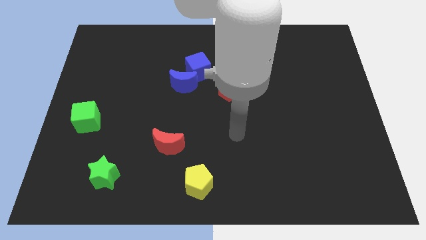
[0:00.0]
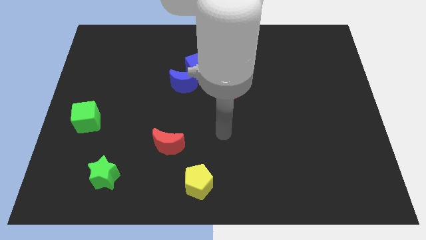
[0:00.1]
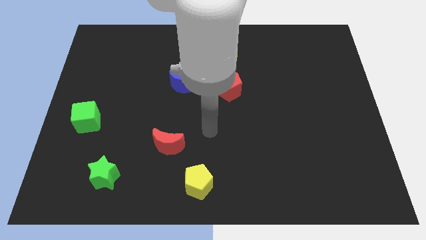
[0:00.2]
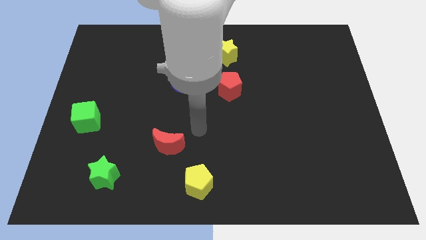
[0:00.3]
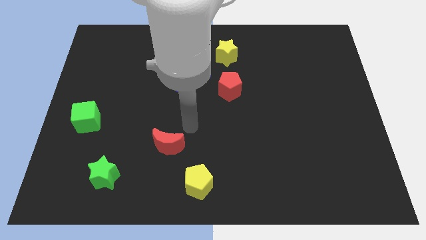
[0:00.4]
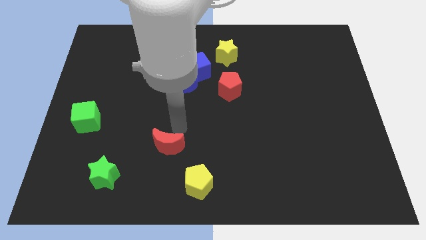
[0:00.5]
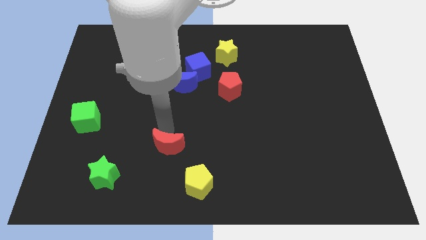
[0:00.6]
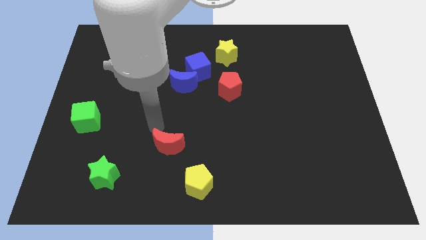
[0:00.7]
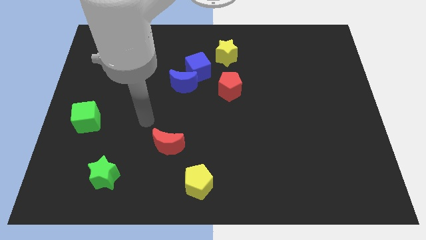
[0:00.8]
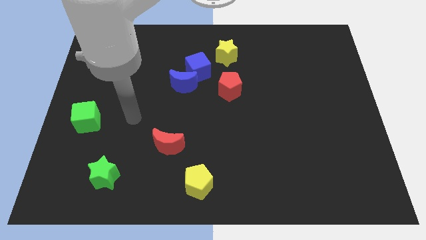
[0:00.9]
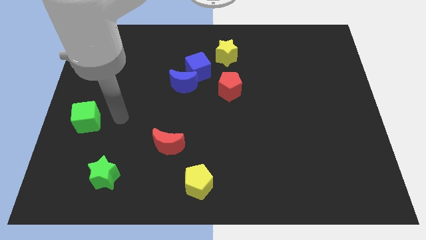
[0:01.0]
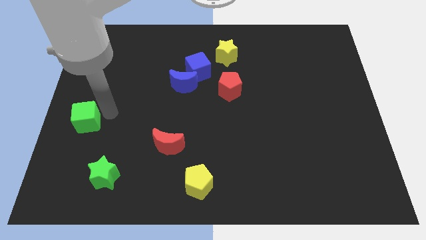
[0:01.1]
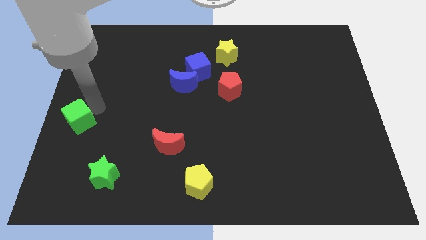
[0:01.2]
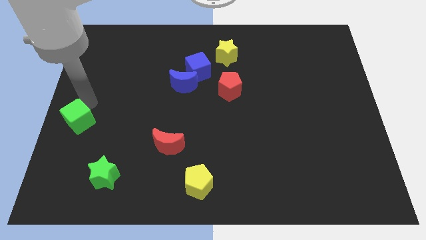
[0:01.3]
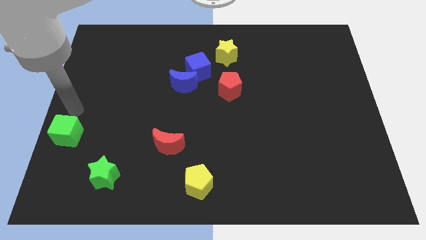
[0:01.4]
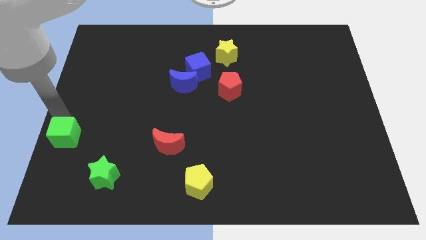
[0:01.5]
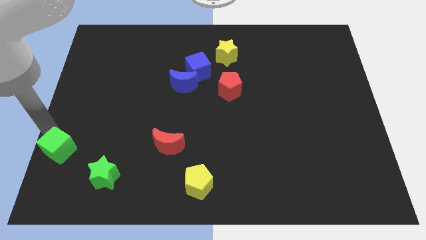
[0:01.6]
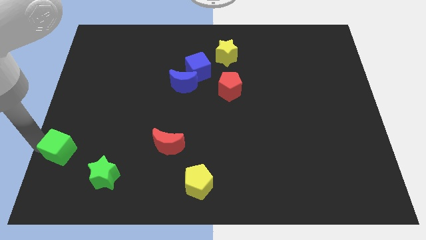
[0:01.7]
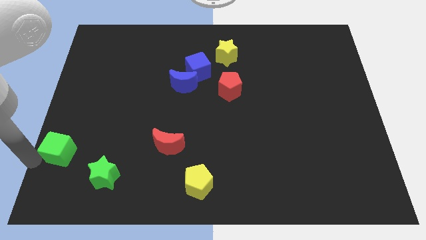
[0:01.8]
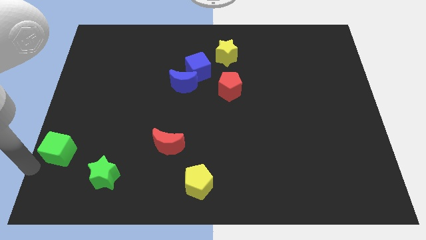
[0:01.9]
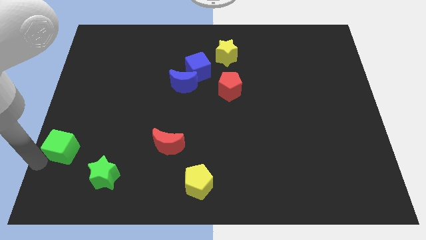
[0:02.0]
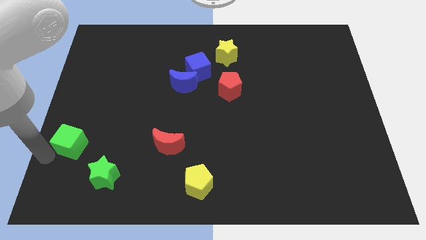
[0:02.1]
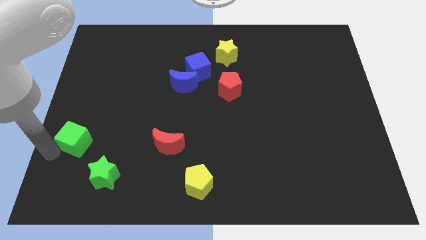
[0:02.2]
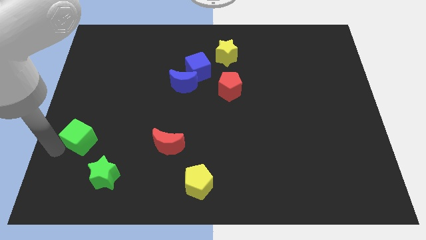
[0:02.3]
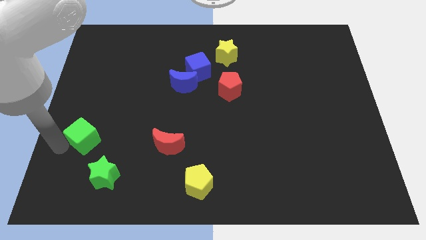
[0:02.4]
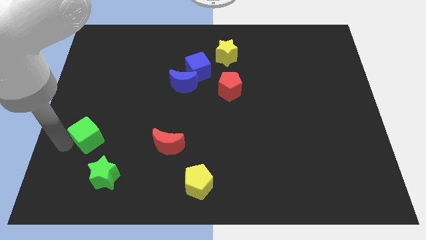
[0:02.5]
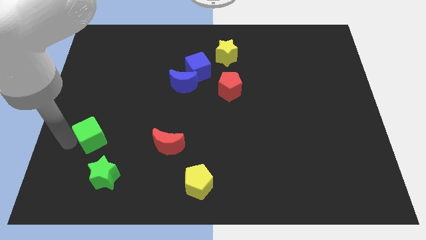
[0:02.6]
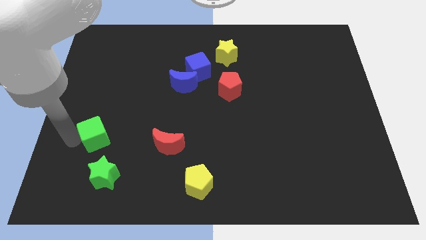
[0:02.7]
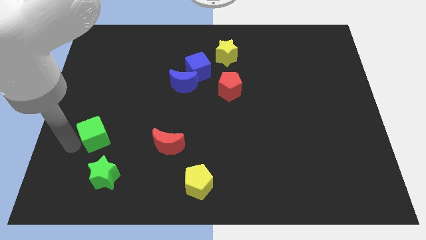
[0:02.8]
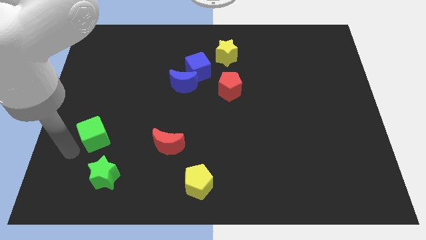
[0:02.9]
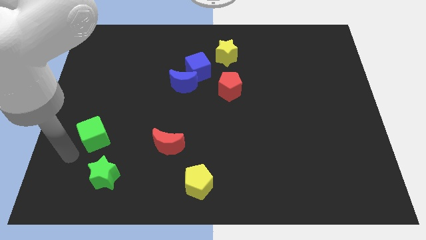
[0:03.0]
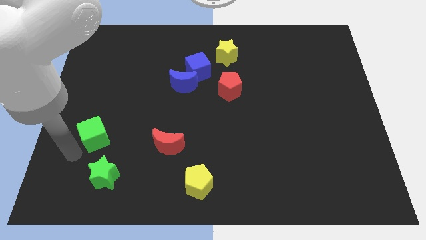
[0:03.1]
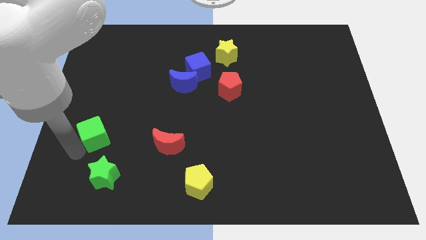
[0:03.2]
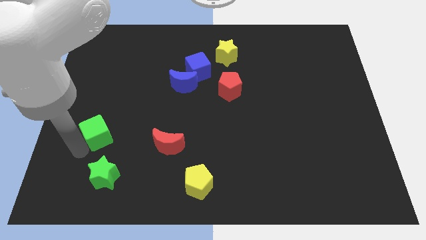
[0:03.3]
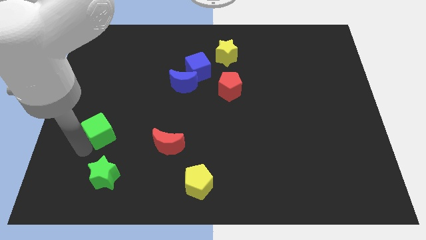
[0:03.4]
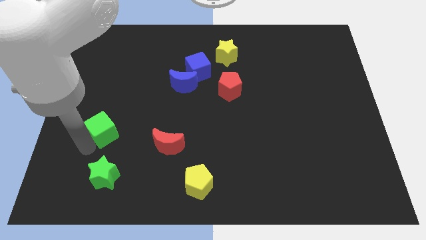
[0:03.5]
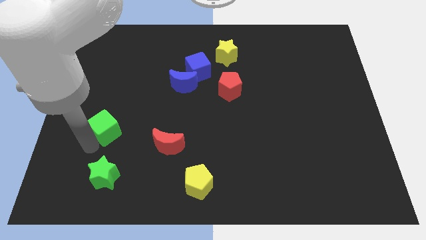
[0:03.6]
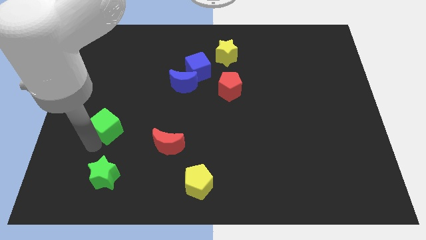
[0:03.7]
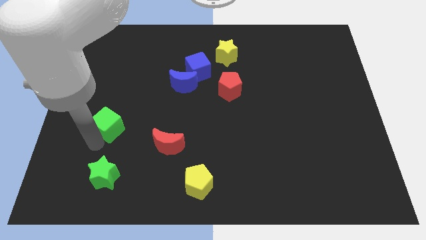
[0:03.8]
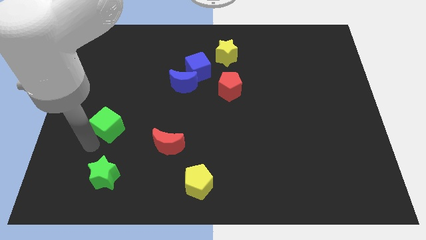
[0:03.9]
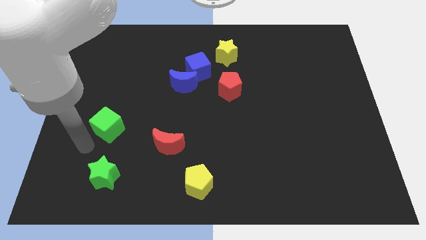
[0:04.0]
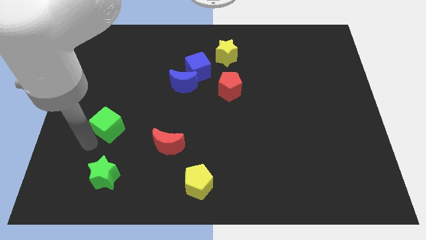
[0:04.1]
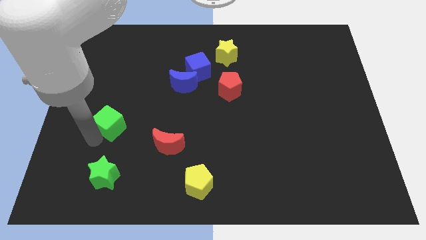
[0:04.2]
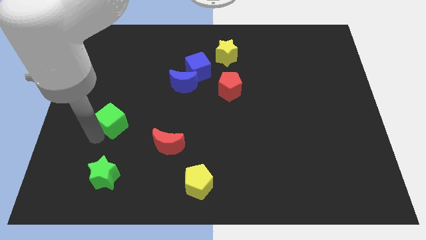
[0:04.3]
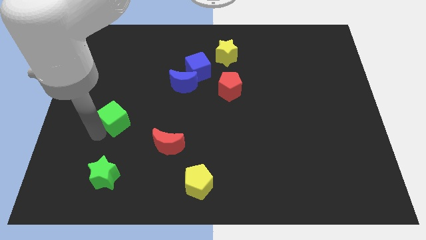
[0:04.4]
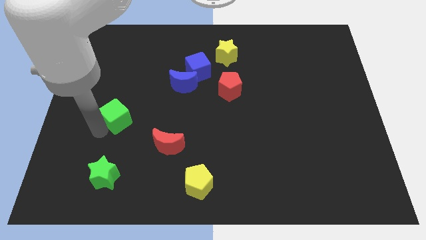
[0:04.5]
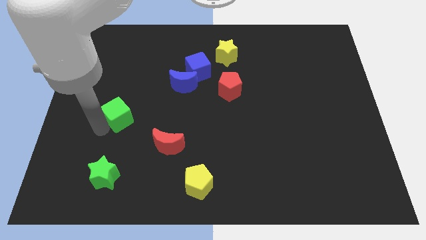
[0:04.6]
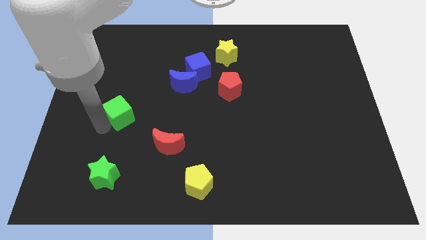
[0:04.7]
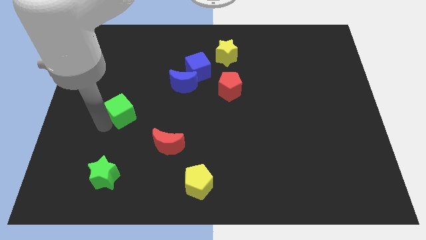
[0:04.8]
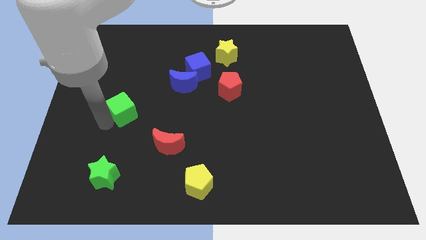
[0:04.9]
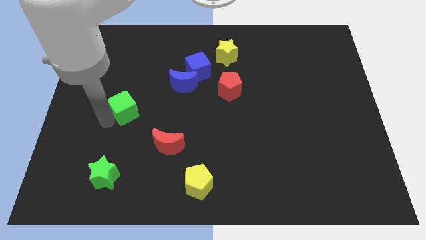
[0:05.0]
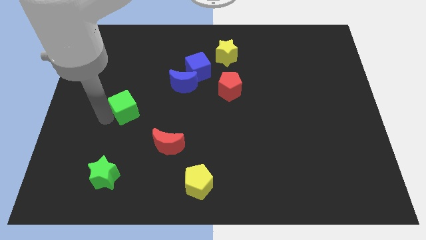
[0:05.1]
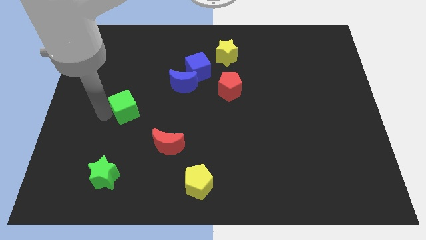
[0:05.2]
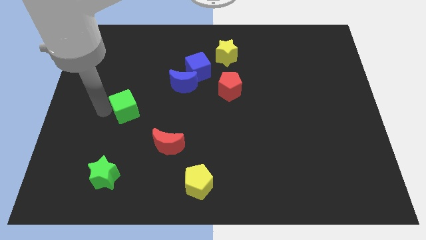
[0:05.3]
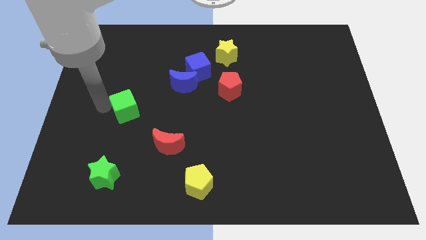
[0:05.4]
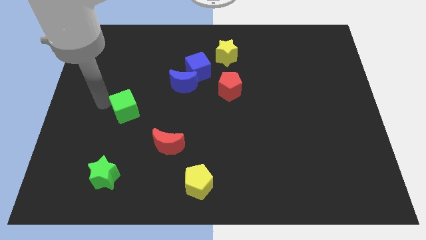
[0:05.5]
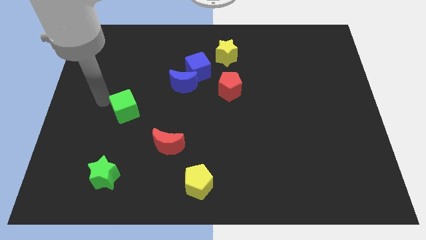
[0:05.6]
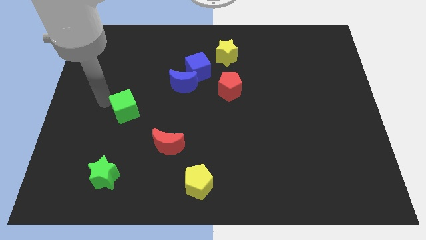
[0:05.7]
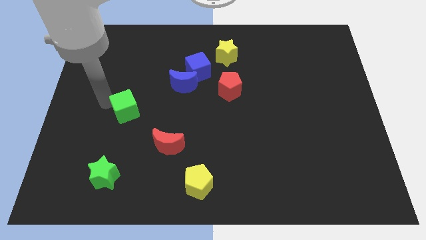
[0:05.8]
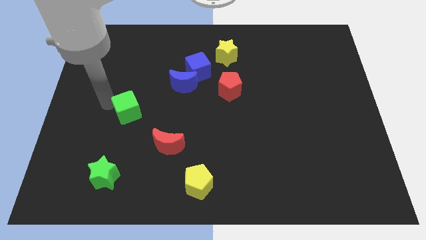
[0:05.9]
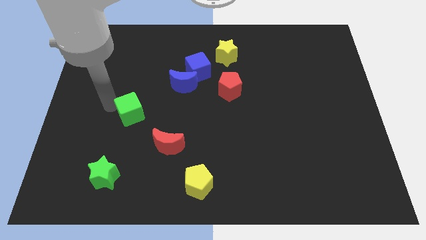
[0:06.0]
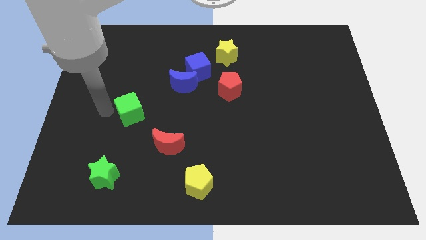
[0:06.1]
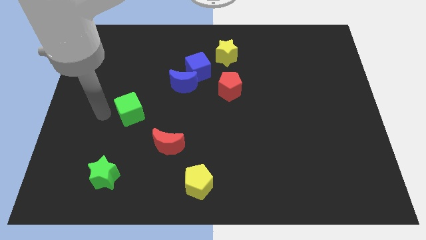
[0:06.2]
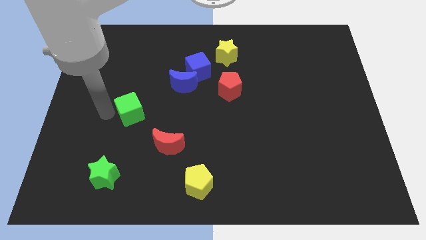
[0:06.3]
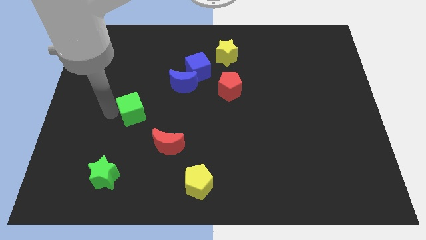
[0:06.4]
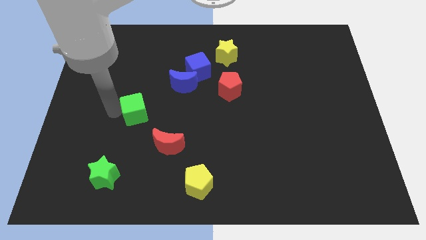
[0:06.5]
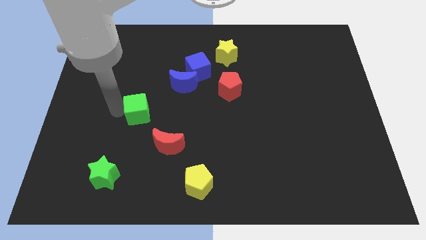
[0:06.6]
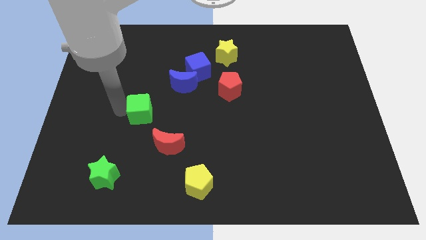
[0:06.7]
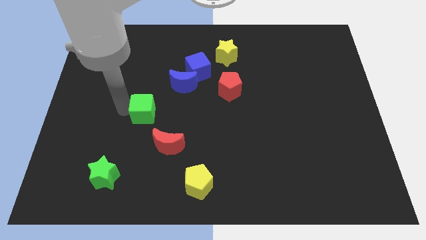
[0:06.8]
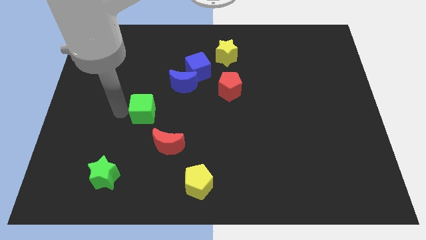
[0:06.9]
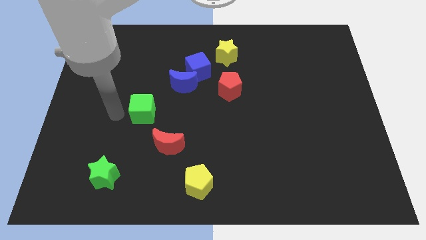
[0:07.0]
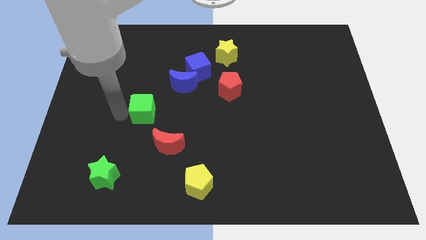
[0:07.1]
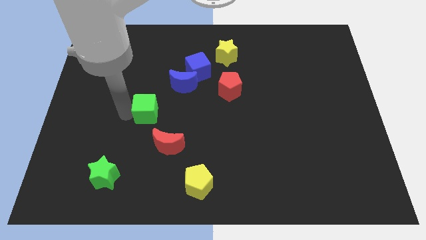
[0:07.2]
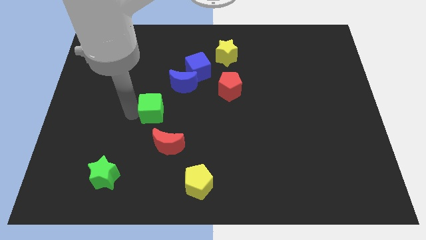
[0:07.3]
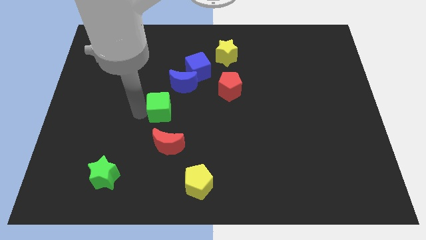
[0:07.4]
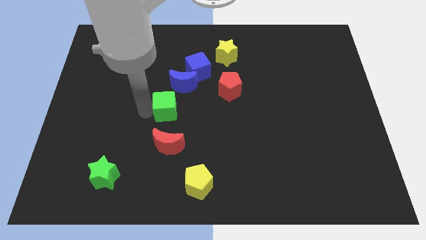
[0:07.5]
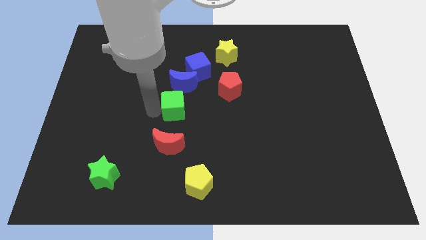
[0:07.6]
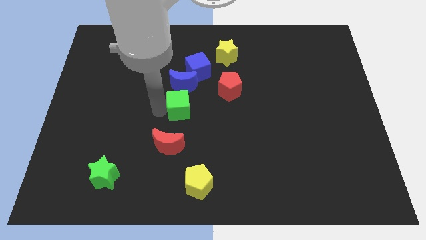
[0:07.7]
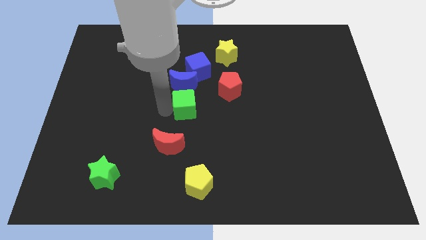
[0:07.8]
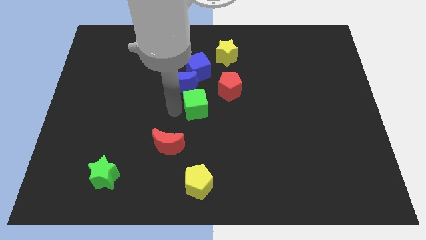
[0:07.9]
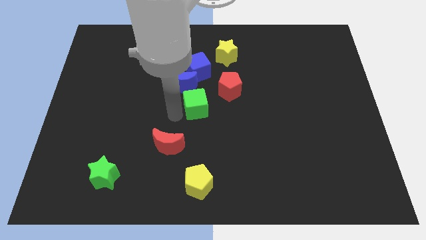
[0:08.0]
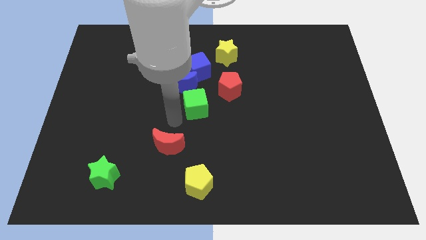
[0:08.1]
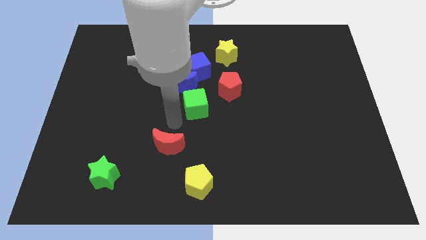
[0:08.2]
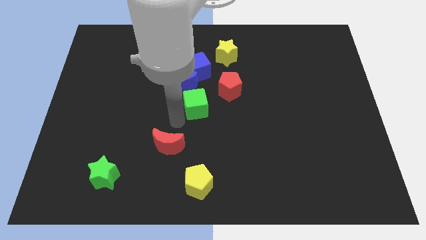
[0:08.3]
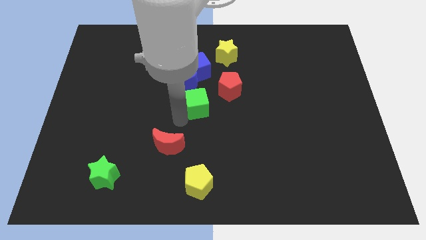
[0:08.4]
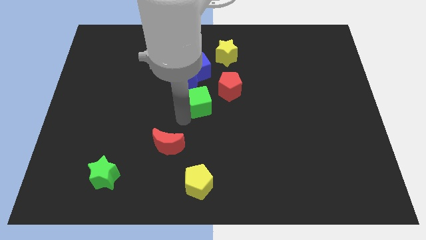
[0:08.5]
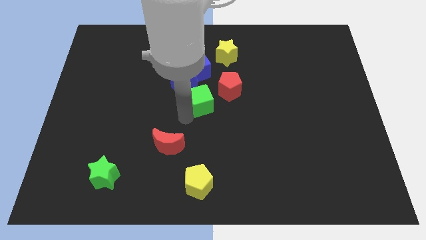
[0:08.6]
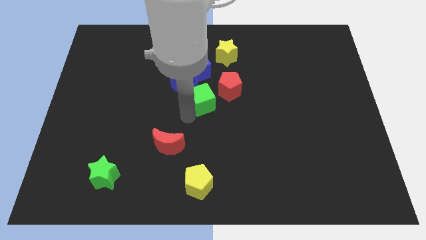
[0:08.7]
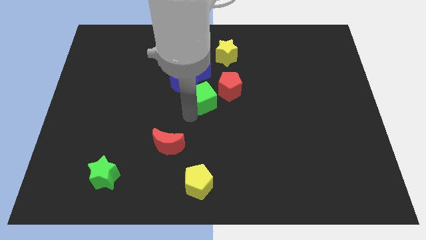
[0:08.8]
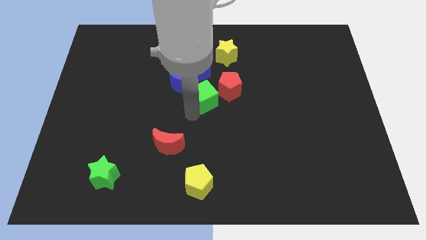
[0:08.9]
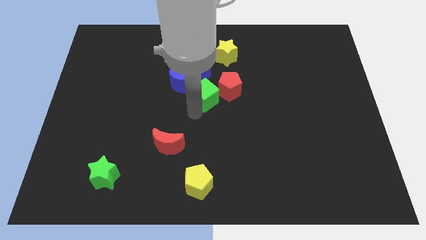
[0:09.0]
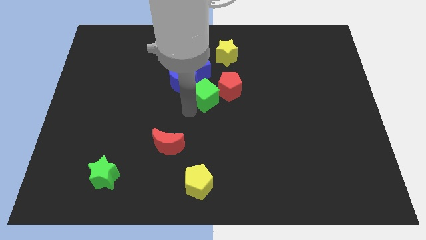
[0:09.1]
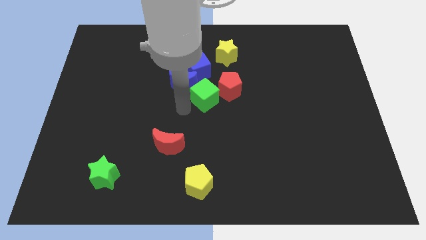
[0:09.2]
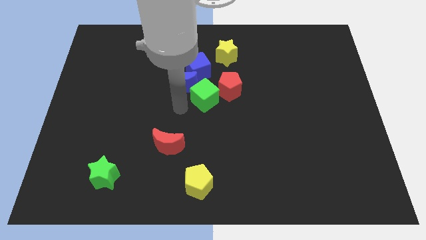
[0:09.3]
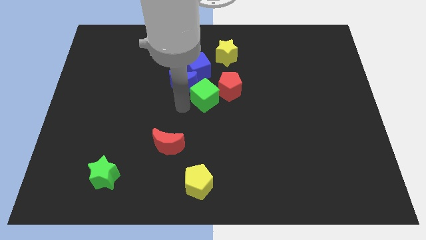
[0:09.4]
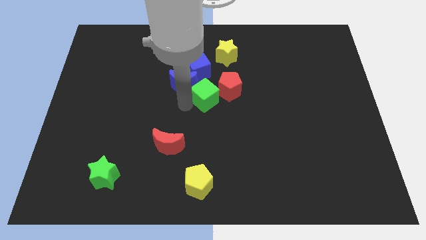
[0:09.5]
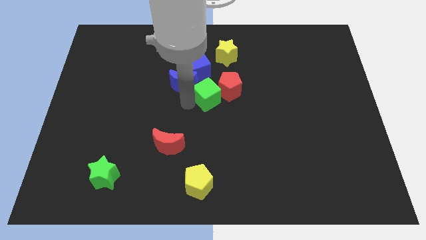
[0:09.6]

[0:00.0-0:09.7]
put the green cube towards the red pentagon
